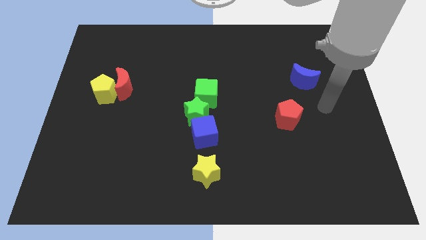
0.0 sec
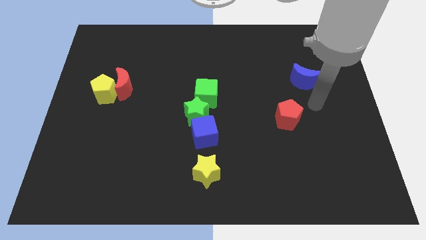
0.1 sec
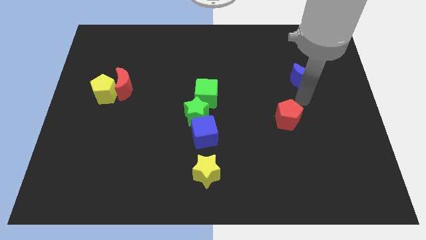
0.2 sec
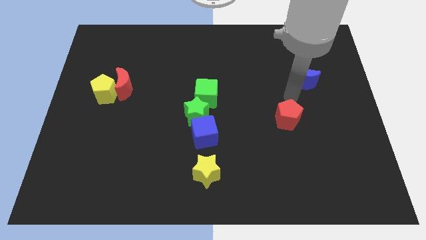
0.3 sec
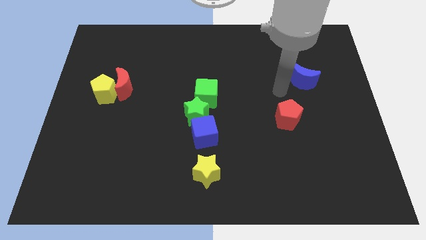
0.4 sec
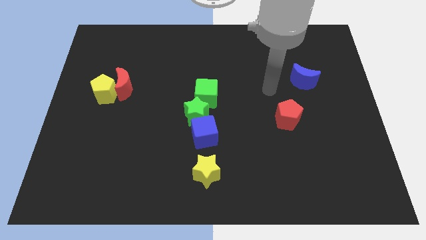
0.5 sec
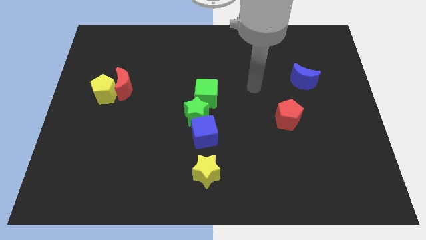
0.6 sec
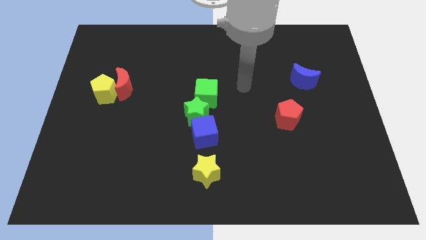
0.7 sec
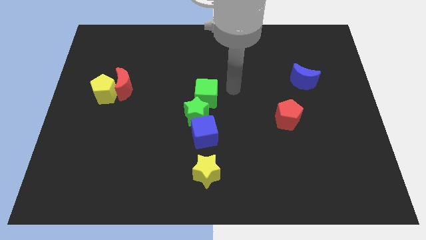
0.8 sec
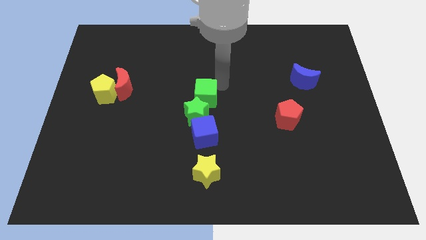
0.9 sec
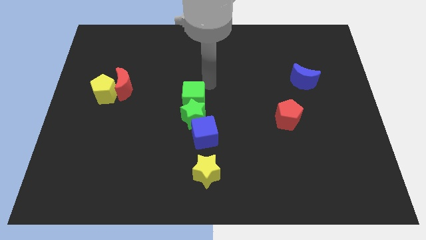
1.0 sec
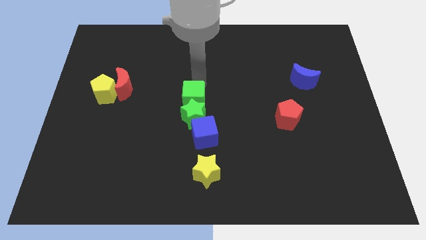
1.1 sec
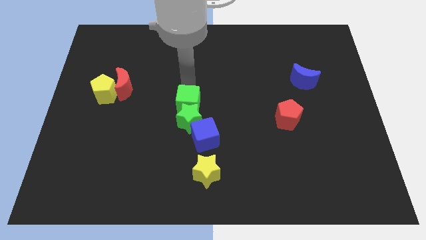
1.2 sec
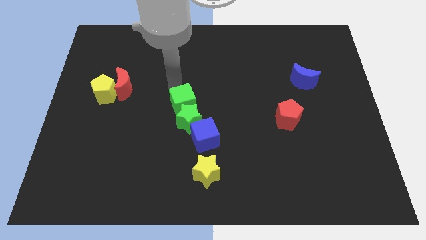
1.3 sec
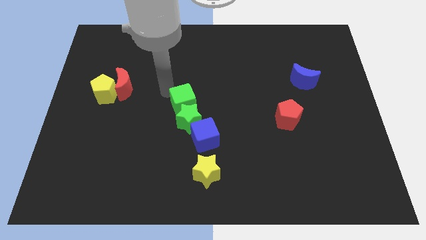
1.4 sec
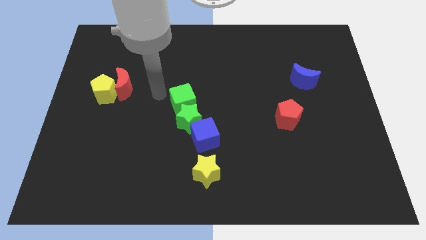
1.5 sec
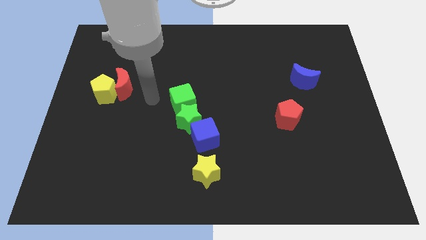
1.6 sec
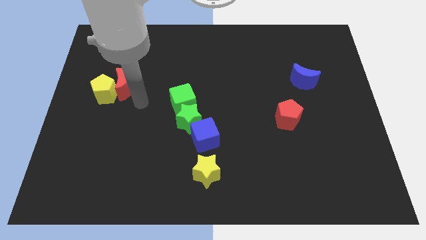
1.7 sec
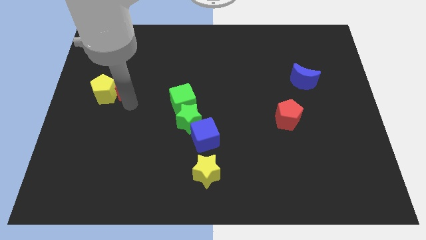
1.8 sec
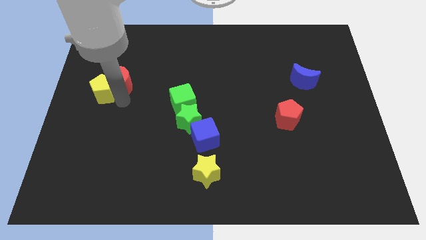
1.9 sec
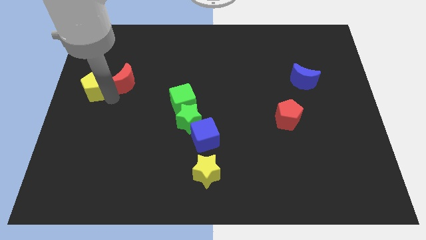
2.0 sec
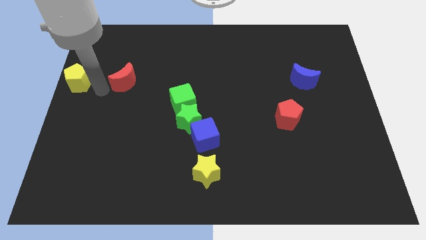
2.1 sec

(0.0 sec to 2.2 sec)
pull the red moon apart from the yellow pentagon

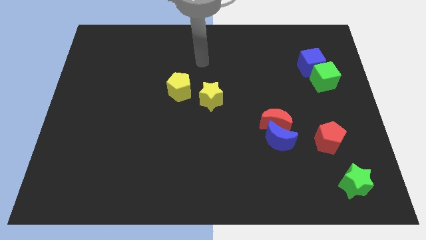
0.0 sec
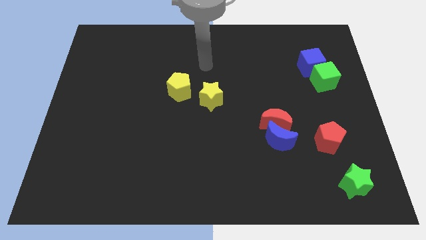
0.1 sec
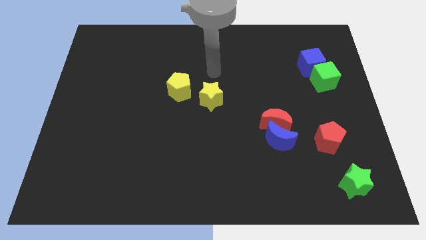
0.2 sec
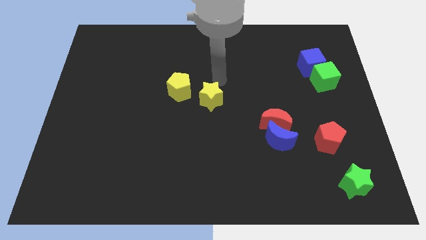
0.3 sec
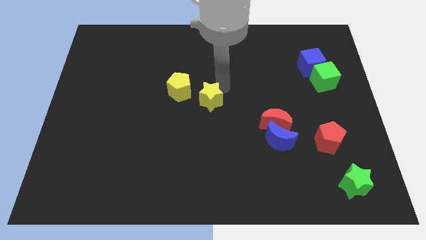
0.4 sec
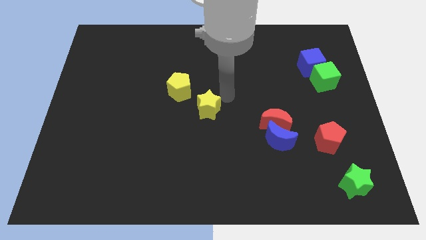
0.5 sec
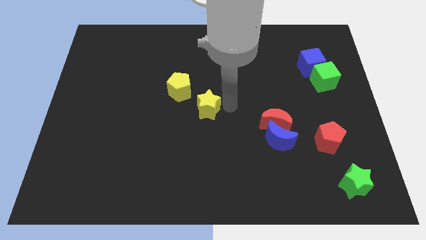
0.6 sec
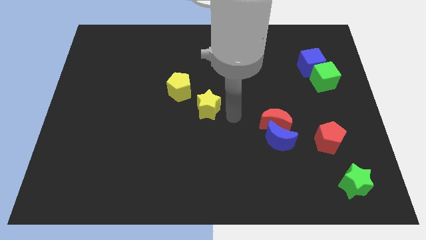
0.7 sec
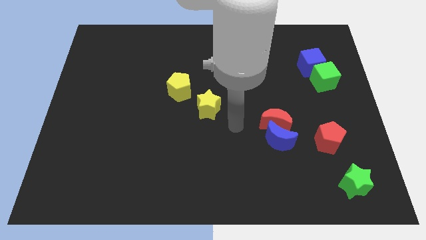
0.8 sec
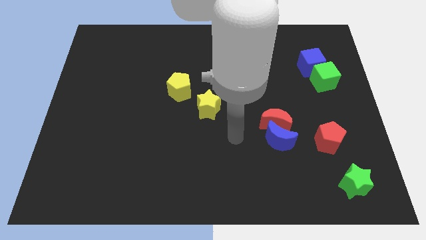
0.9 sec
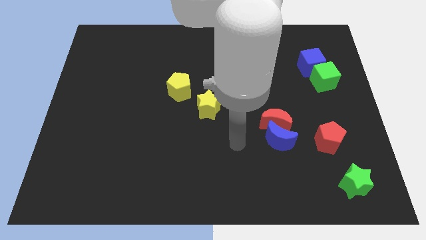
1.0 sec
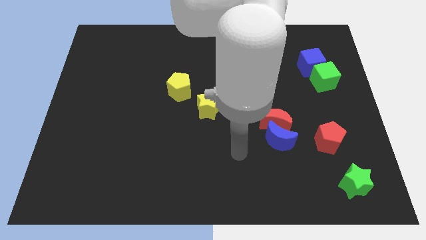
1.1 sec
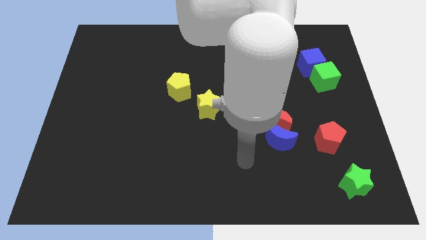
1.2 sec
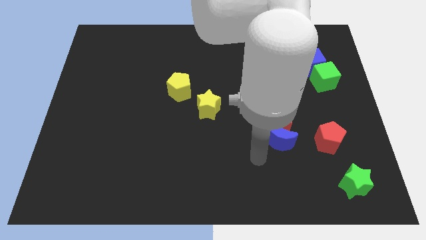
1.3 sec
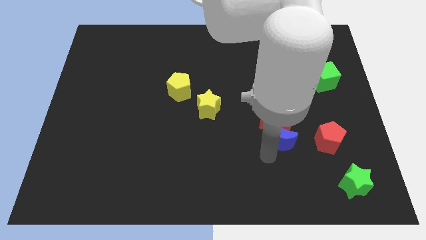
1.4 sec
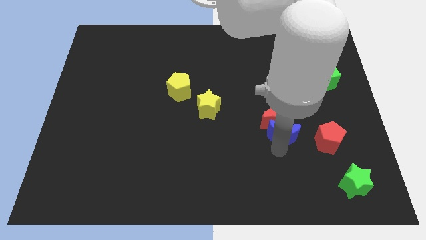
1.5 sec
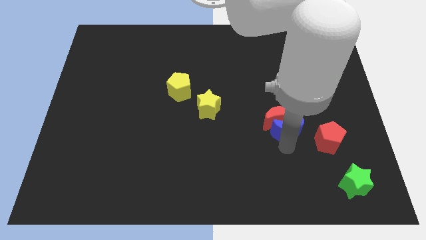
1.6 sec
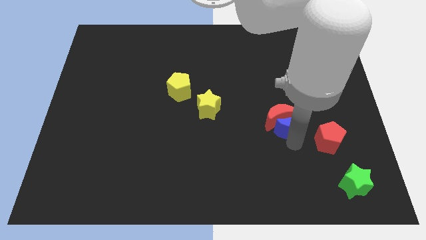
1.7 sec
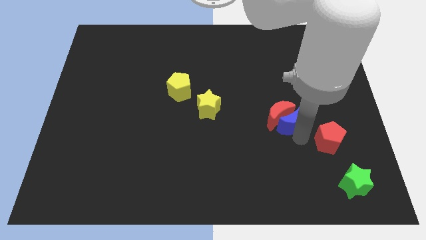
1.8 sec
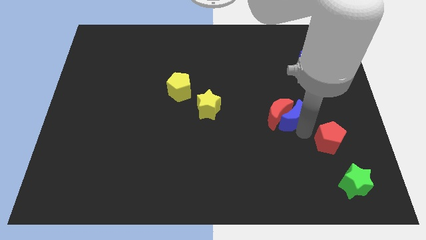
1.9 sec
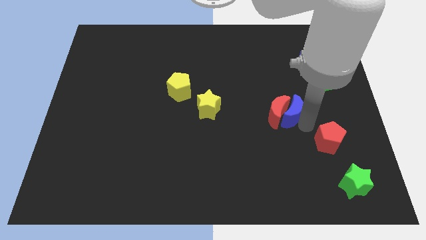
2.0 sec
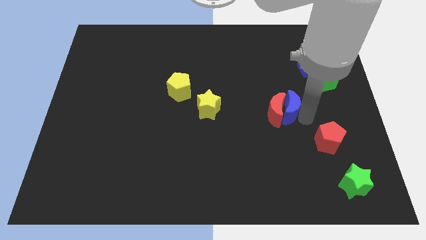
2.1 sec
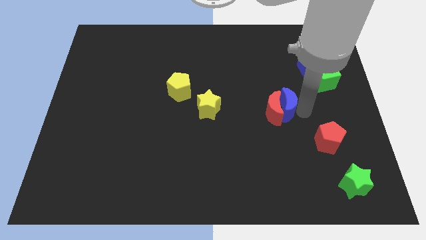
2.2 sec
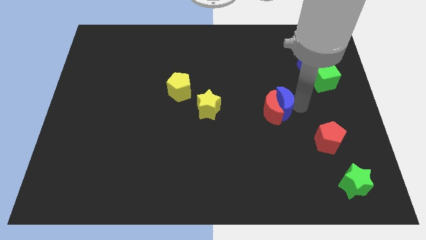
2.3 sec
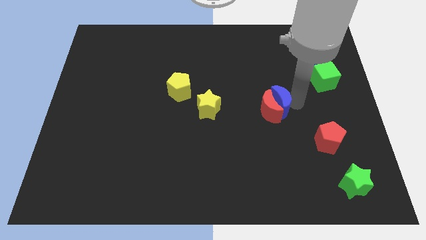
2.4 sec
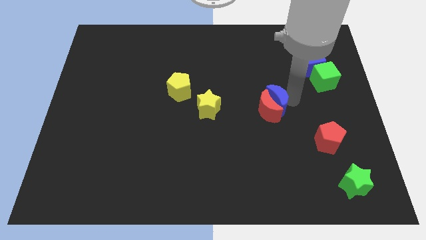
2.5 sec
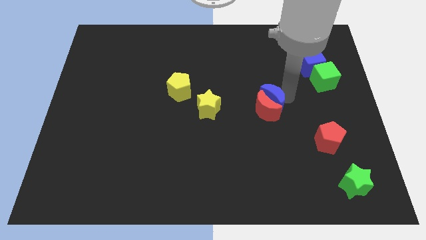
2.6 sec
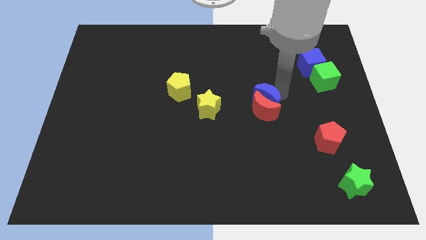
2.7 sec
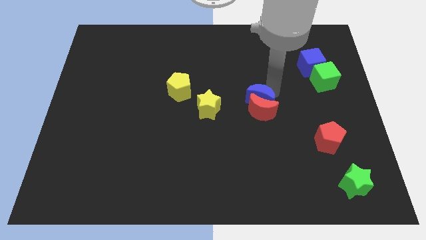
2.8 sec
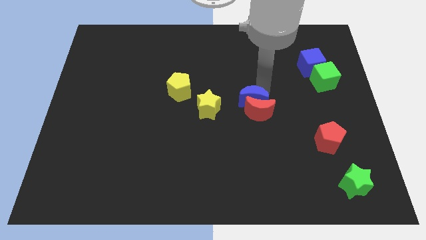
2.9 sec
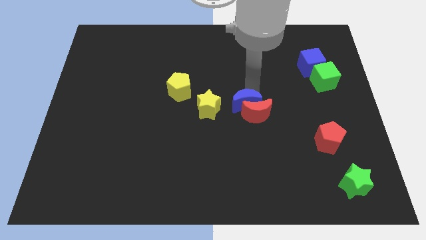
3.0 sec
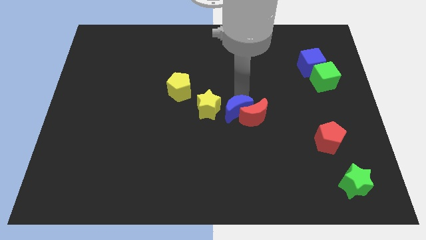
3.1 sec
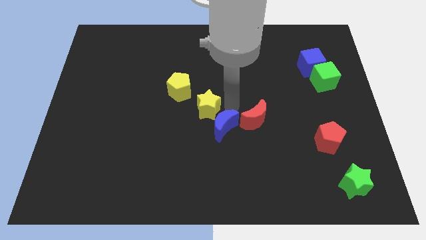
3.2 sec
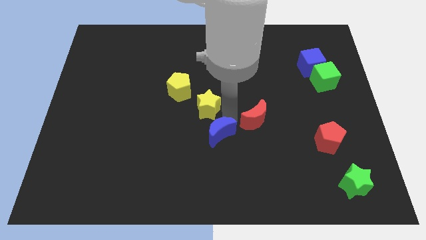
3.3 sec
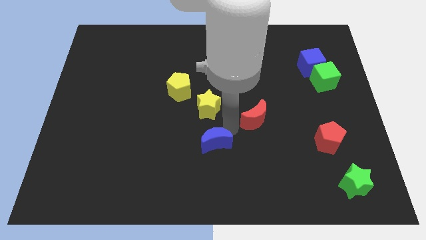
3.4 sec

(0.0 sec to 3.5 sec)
move the red moon away from the blue moon

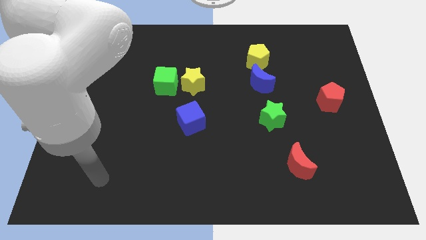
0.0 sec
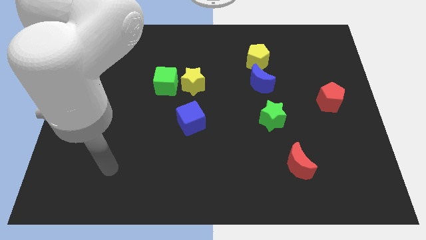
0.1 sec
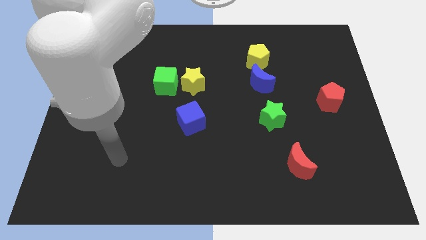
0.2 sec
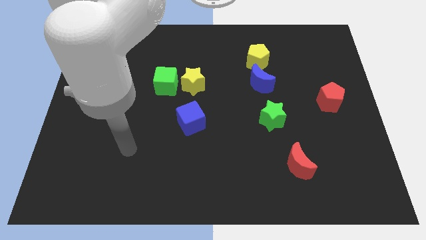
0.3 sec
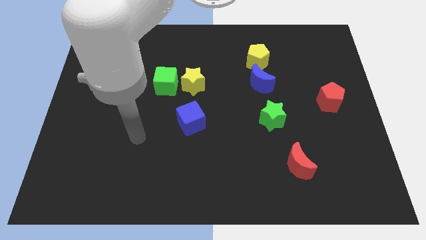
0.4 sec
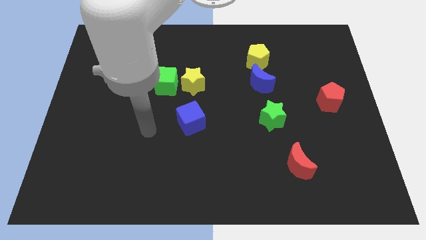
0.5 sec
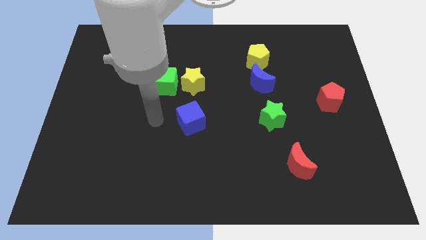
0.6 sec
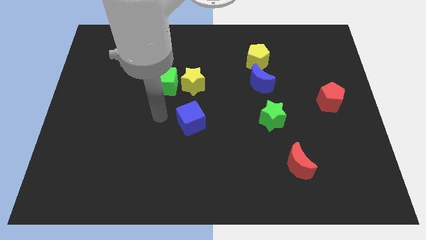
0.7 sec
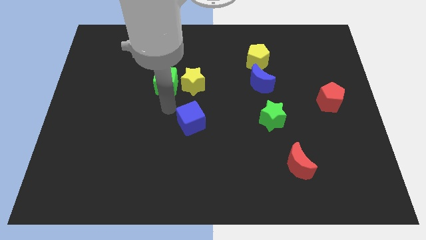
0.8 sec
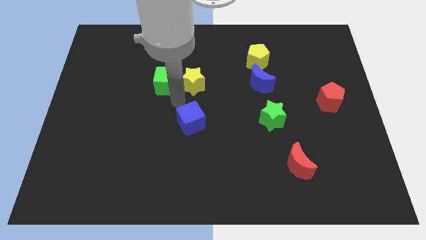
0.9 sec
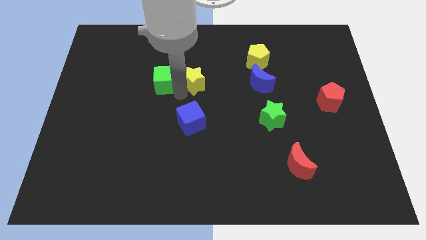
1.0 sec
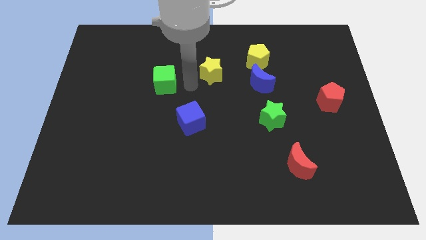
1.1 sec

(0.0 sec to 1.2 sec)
pull the green cube apart from the yellow star

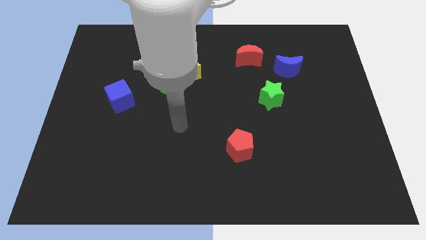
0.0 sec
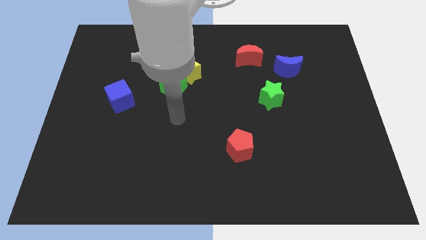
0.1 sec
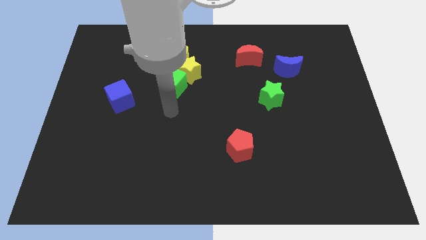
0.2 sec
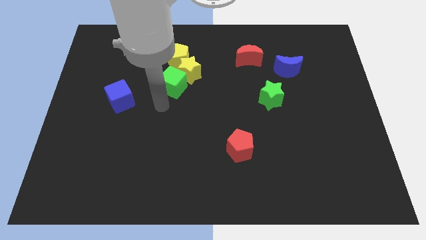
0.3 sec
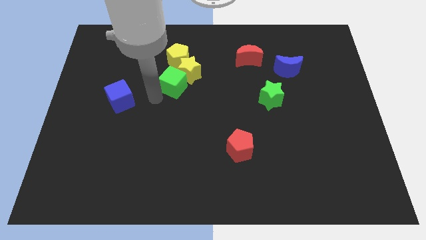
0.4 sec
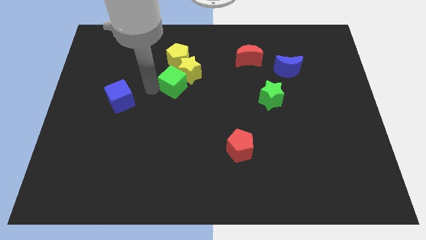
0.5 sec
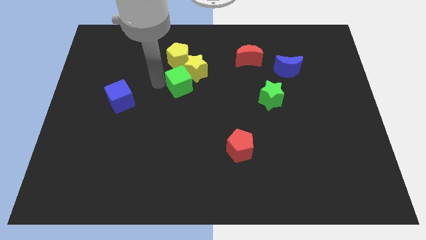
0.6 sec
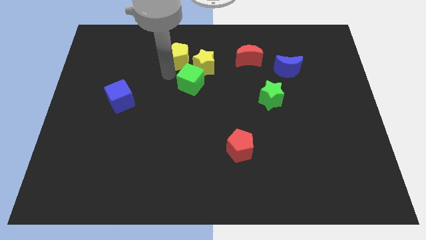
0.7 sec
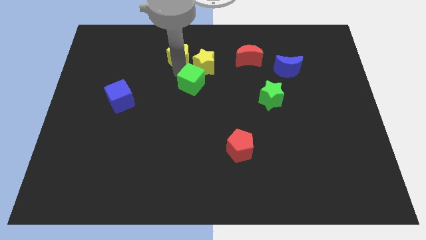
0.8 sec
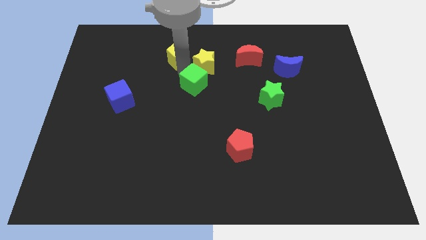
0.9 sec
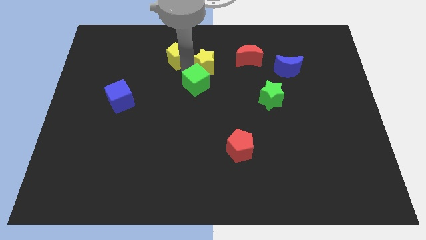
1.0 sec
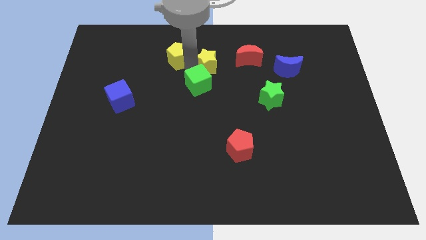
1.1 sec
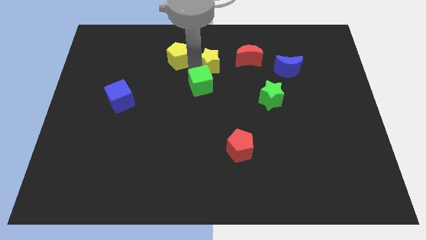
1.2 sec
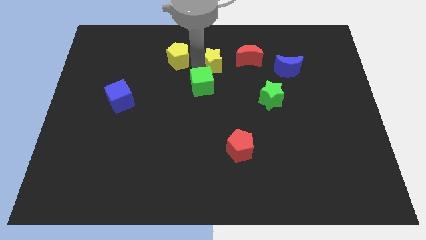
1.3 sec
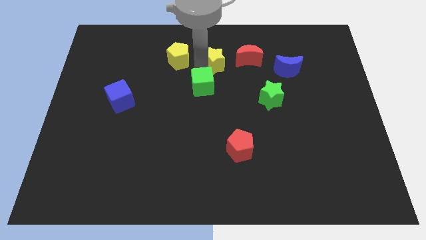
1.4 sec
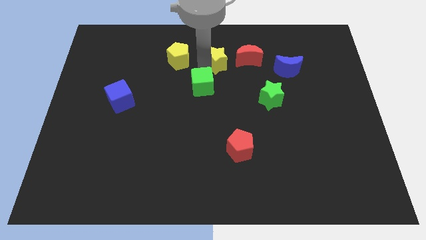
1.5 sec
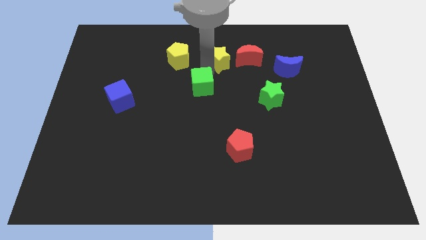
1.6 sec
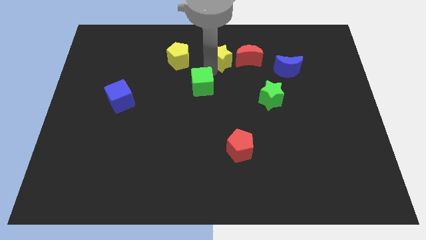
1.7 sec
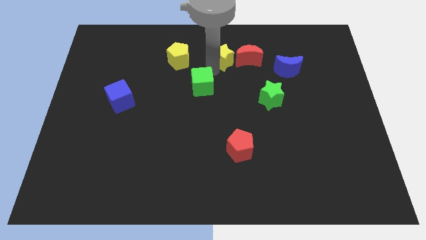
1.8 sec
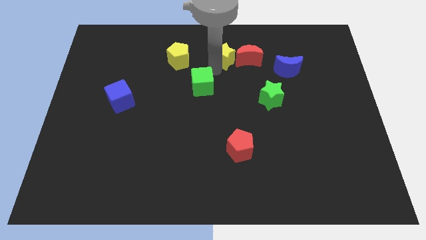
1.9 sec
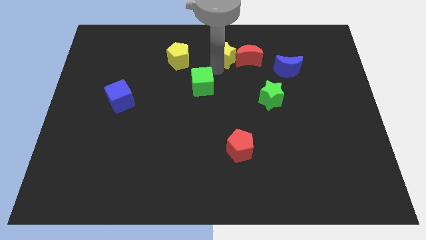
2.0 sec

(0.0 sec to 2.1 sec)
separate the yellow star from the green cube and yellow pentagon

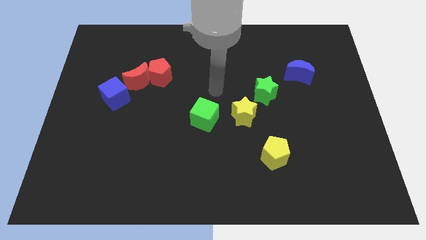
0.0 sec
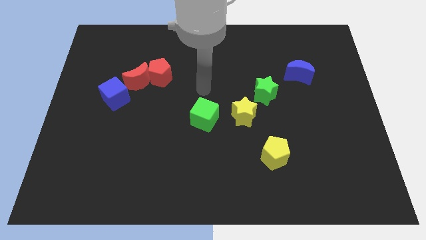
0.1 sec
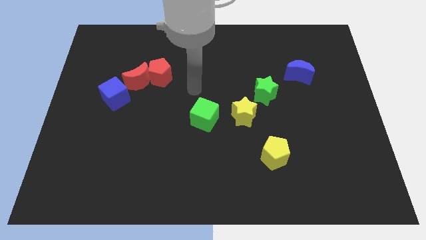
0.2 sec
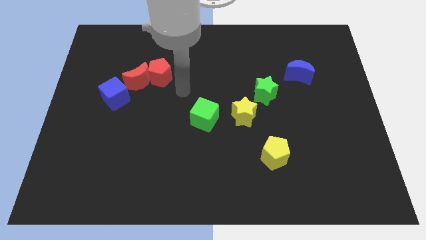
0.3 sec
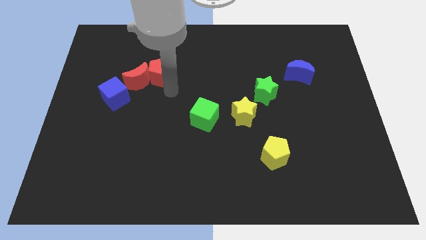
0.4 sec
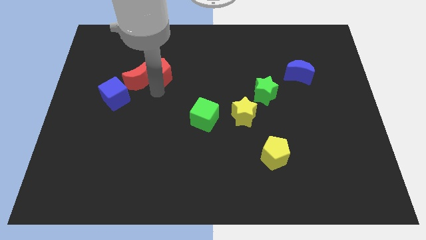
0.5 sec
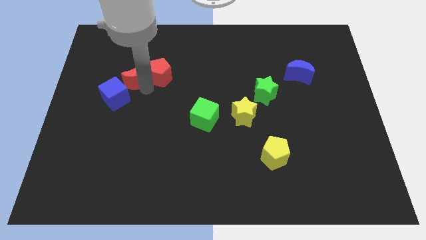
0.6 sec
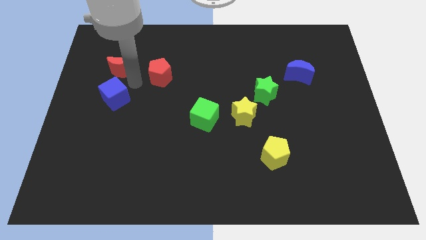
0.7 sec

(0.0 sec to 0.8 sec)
separate the red pentagon from the red moon
